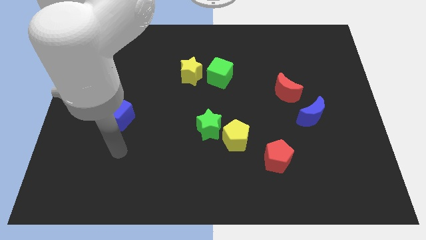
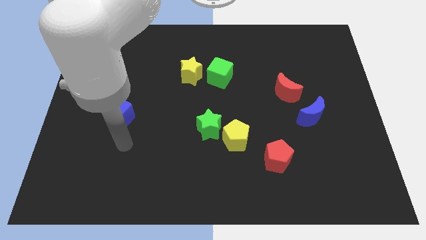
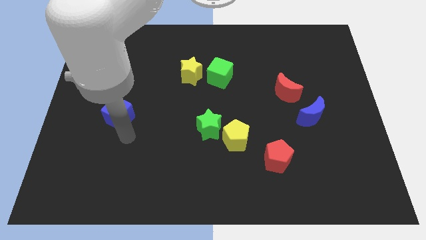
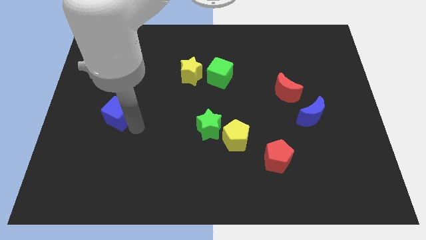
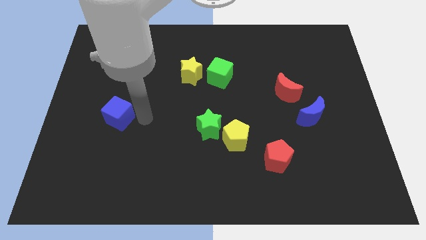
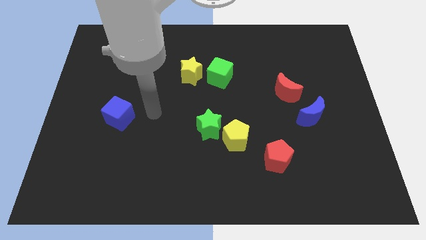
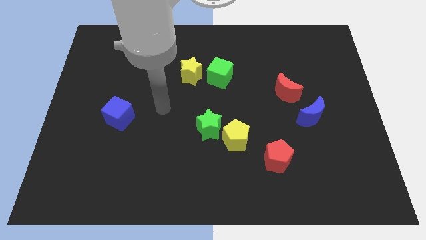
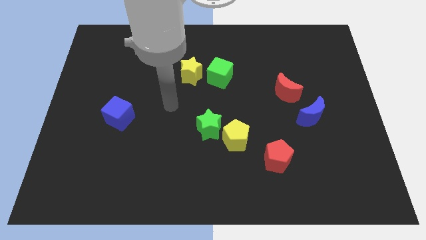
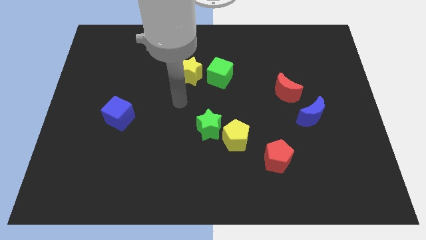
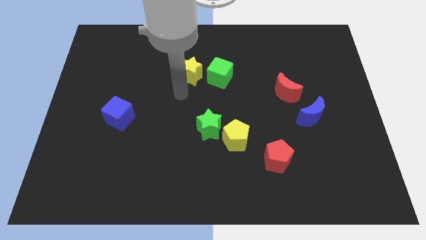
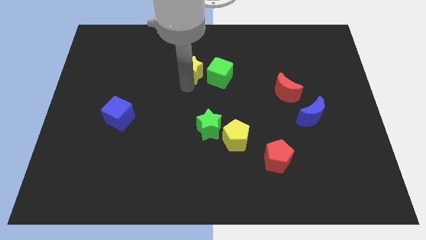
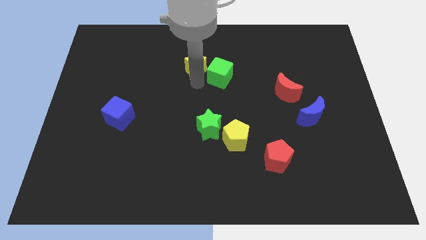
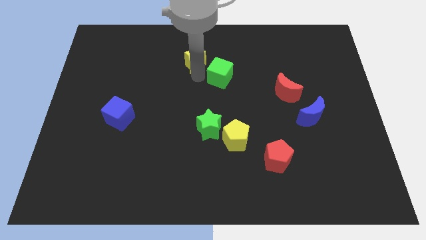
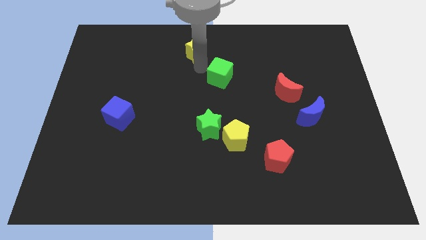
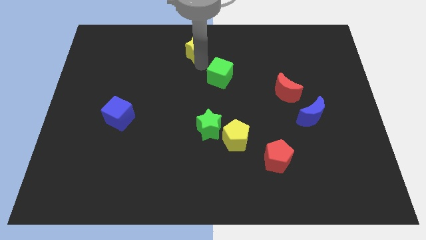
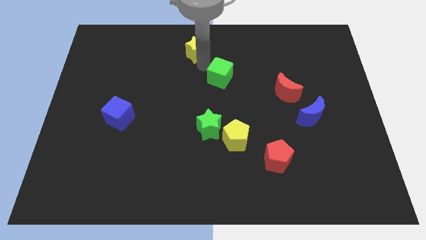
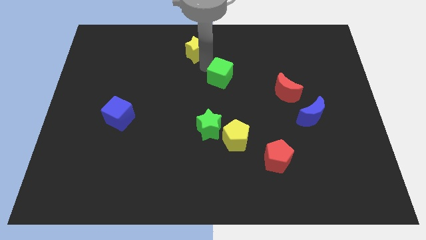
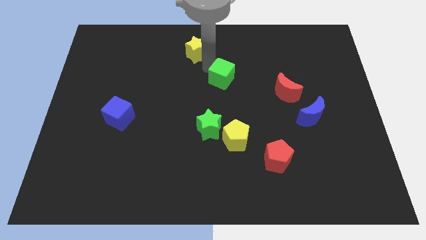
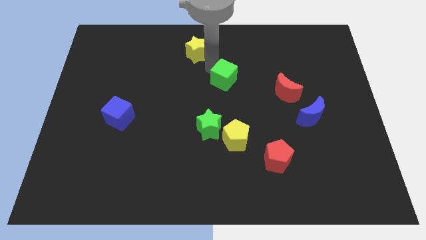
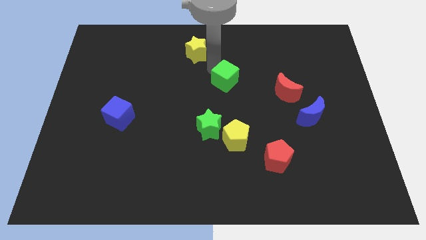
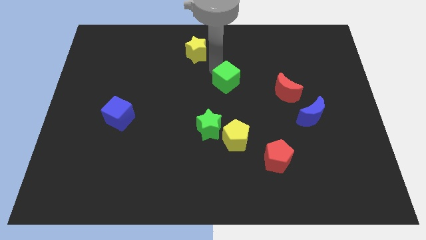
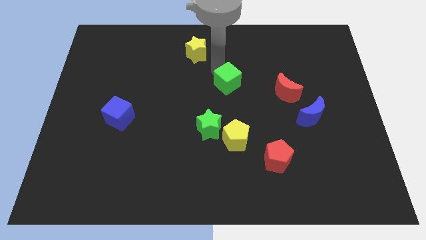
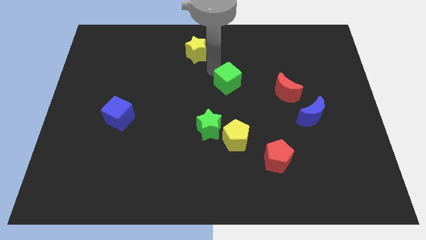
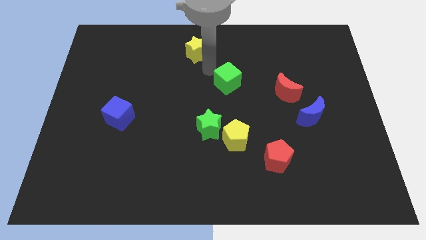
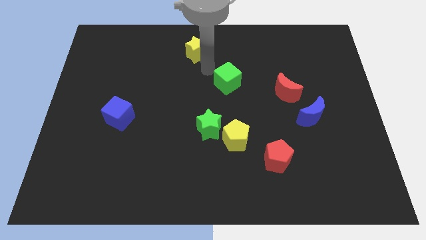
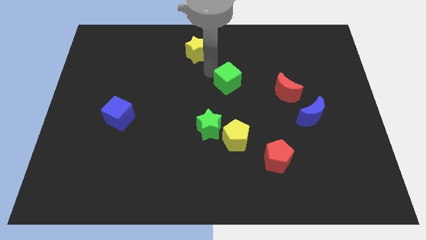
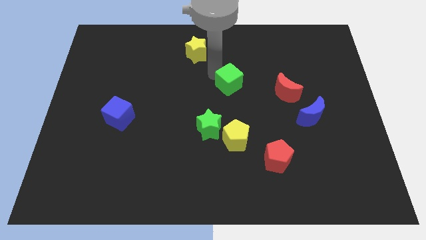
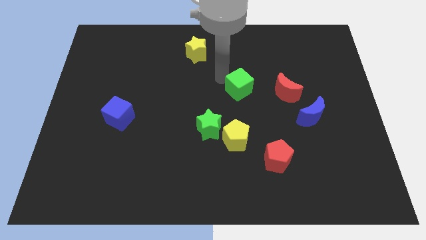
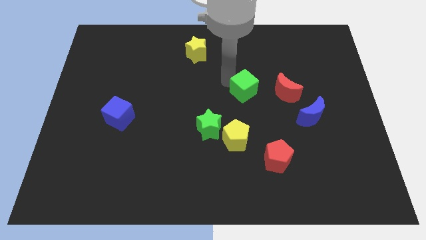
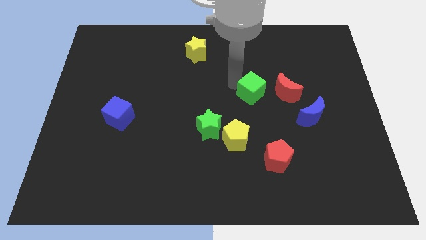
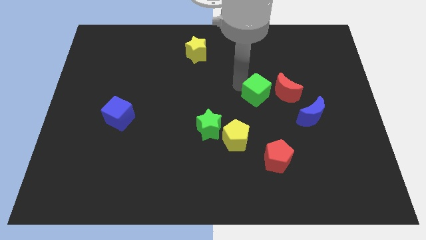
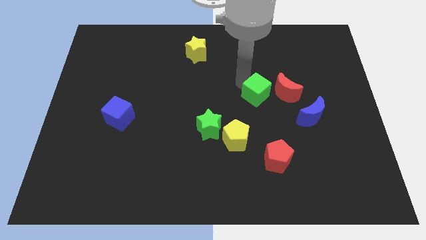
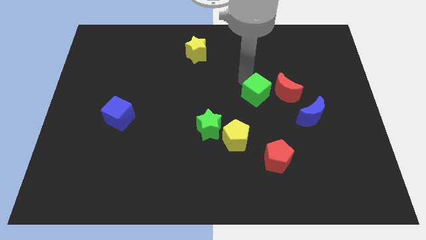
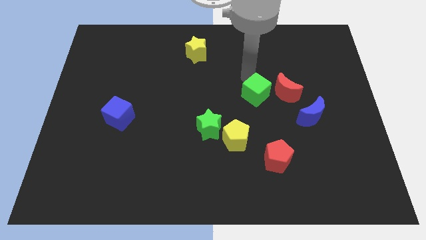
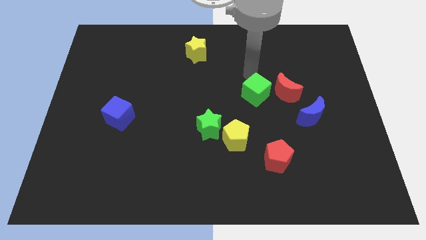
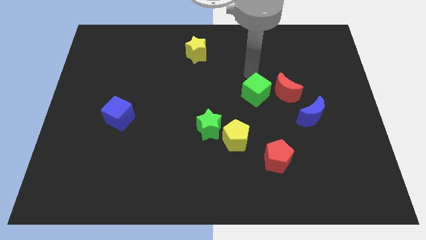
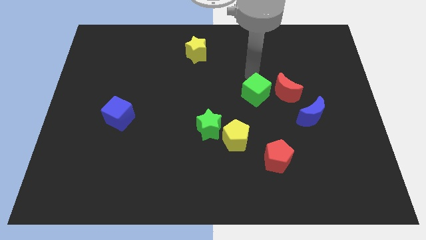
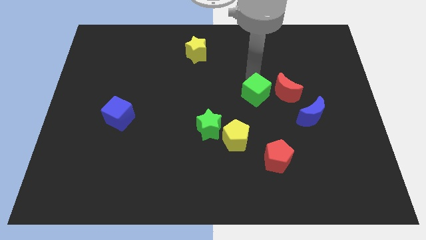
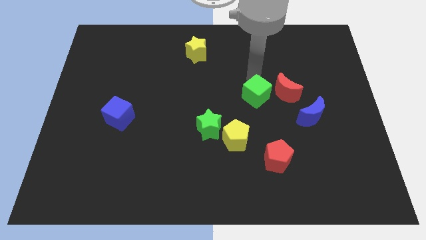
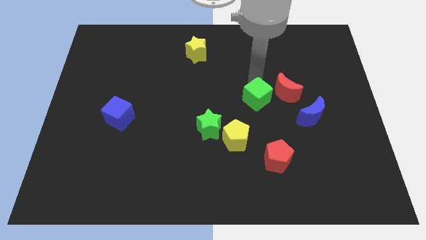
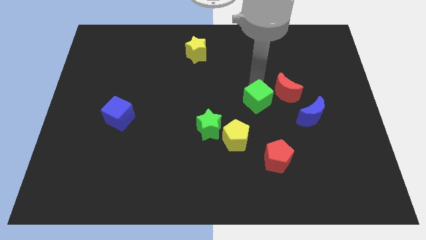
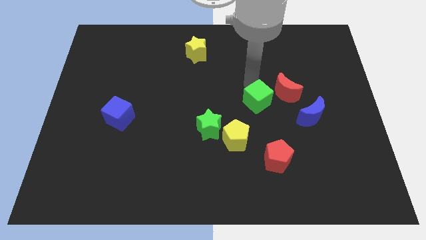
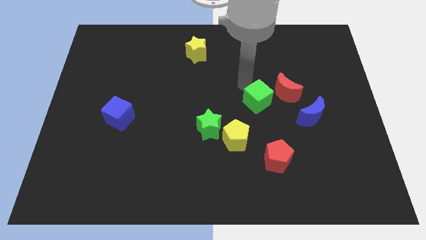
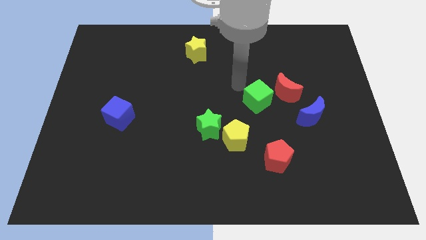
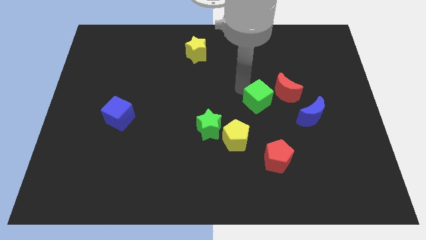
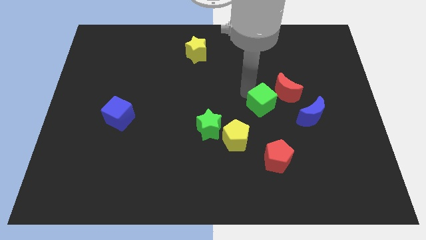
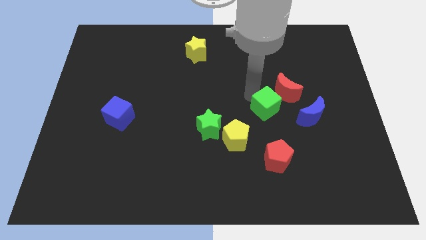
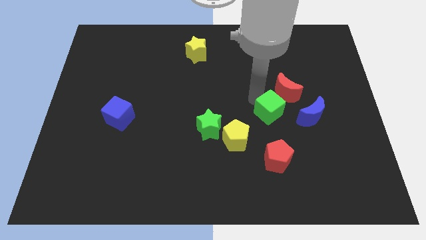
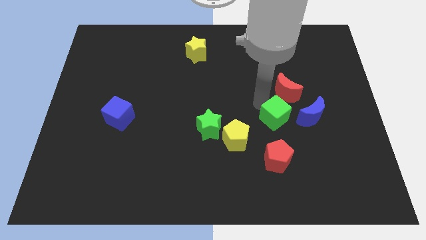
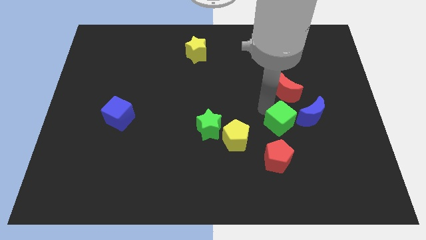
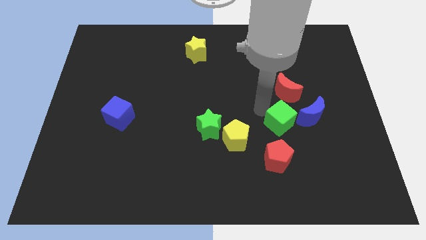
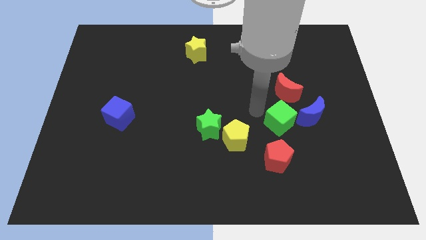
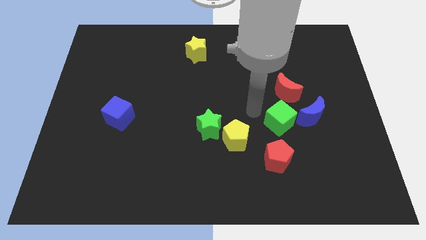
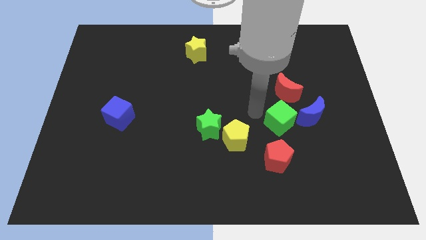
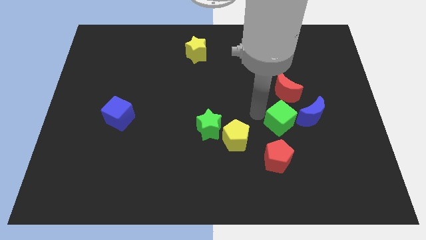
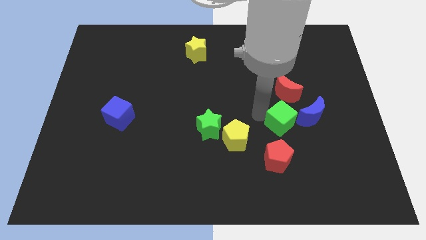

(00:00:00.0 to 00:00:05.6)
slide the green cube down and right

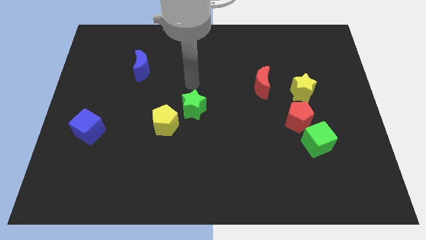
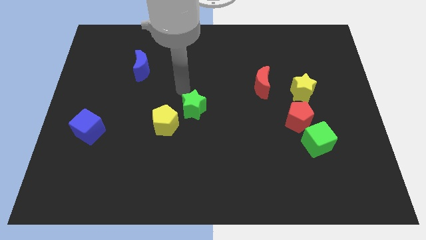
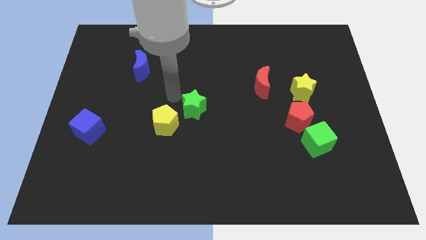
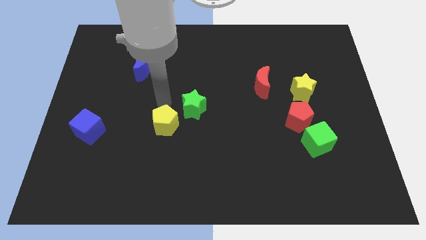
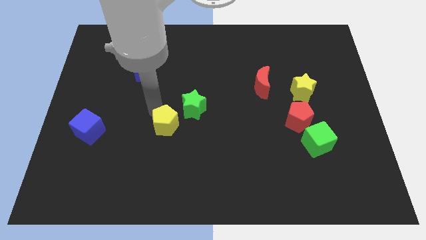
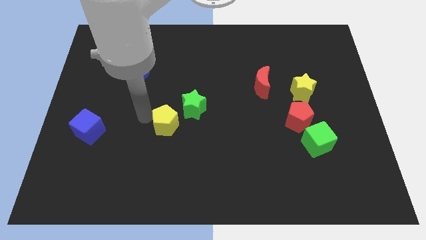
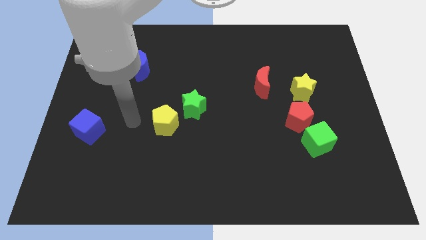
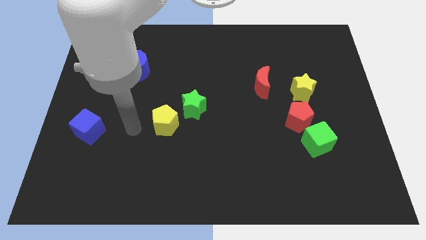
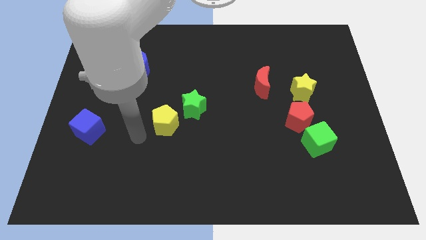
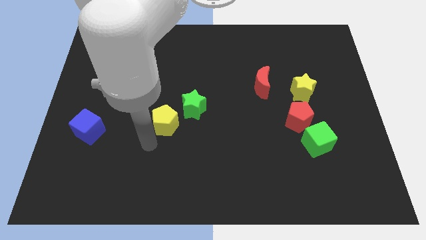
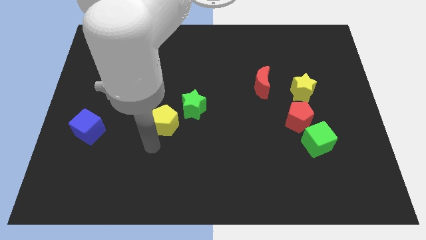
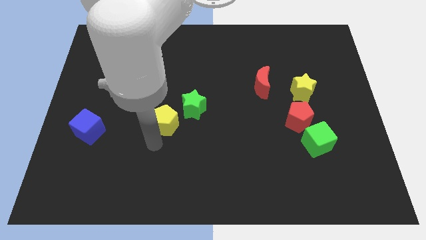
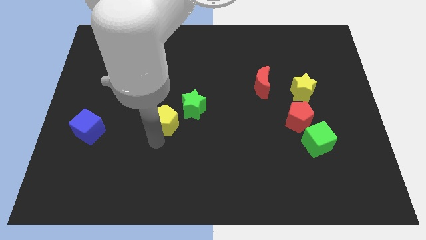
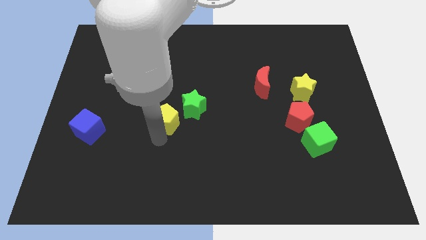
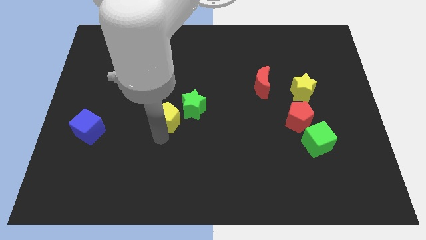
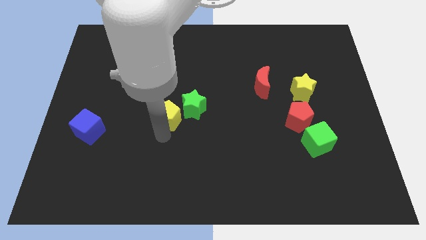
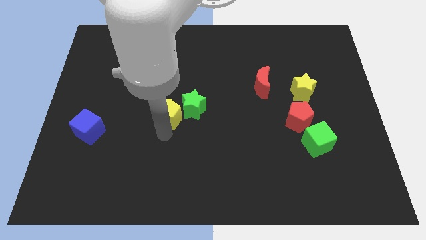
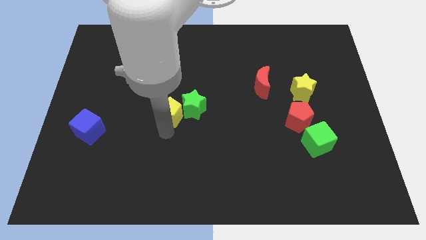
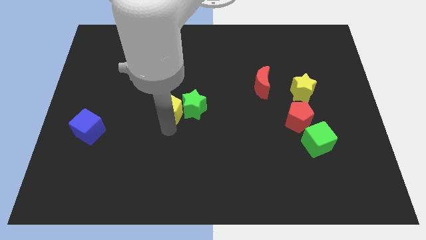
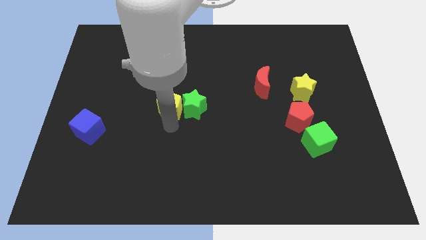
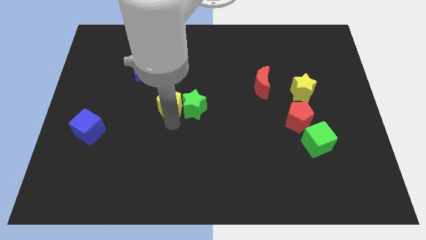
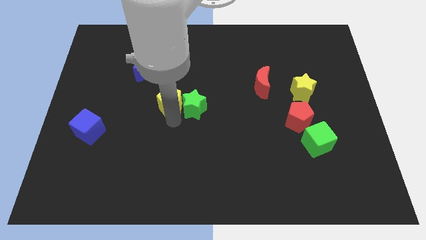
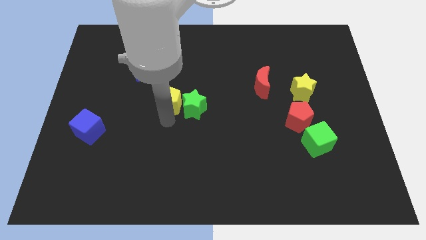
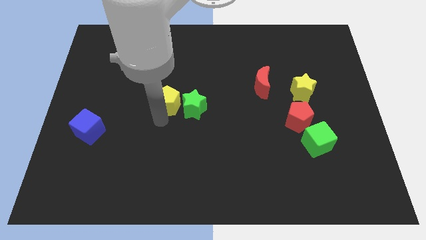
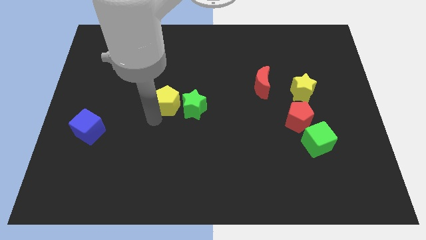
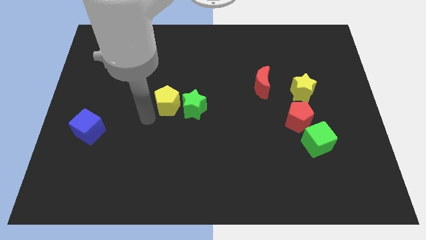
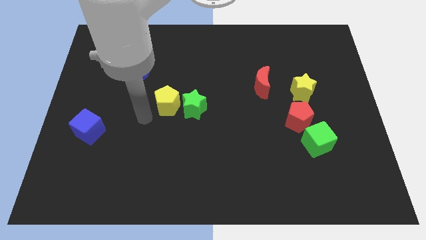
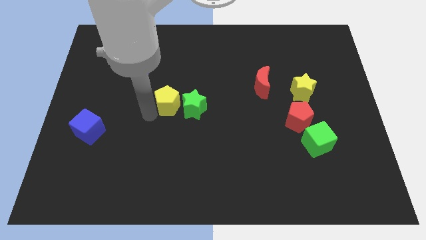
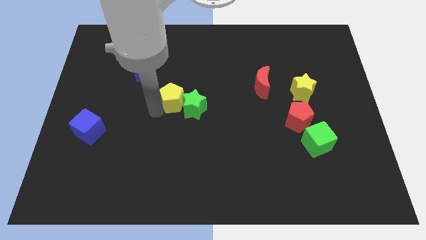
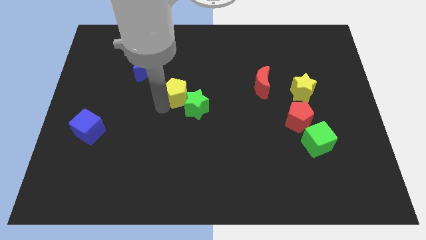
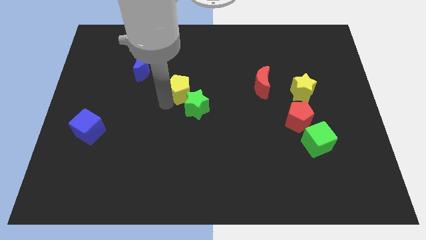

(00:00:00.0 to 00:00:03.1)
slightly move the yellow pentagon upwards and right
